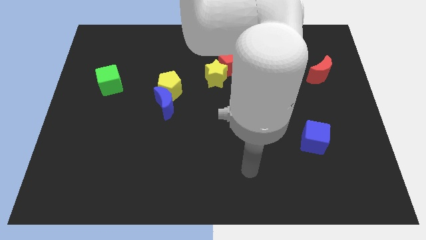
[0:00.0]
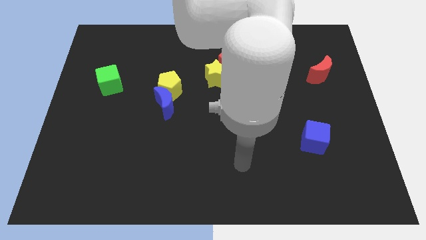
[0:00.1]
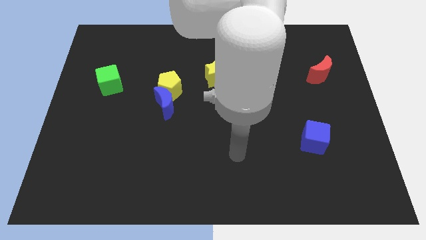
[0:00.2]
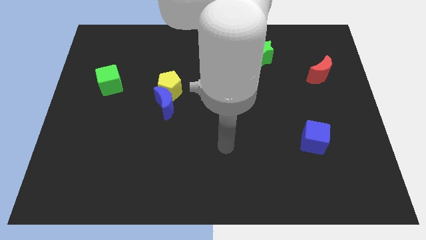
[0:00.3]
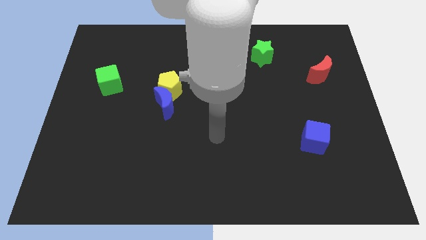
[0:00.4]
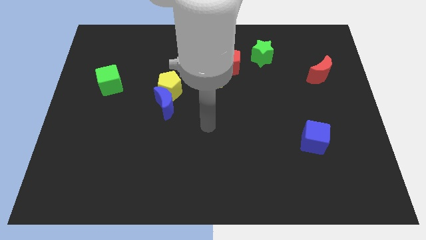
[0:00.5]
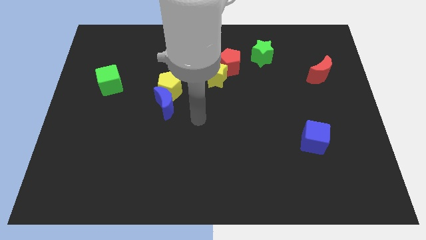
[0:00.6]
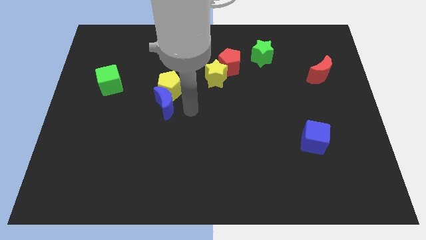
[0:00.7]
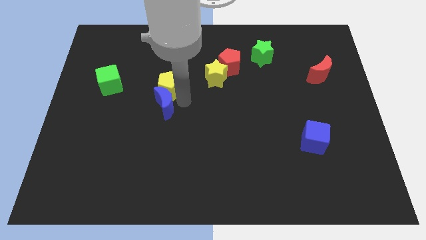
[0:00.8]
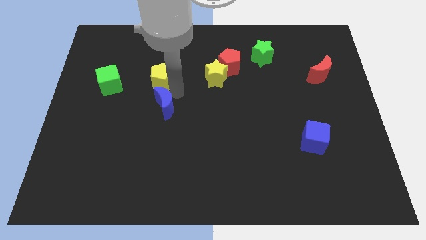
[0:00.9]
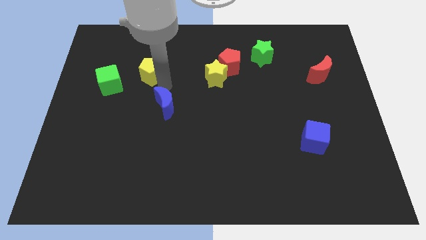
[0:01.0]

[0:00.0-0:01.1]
pull the blue moon apart from the yellow pentagon

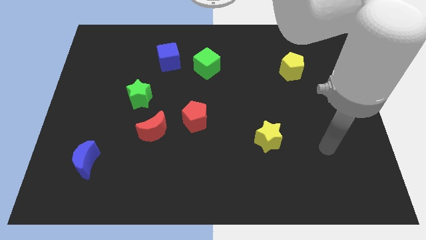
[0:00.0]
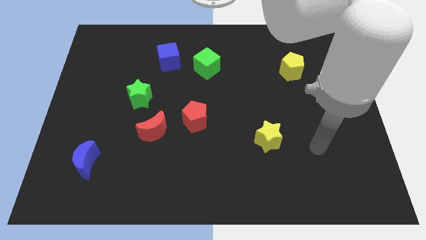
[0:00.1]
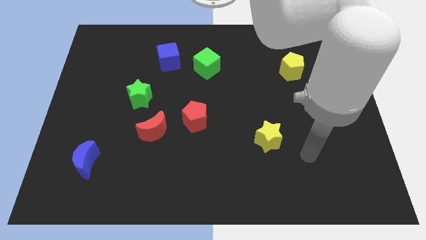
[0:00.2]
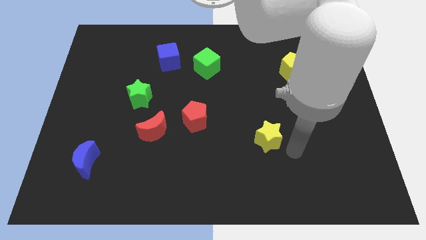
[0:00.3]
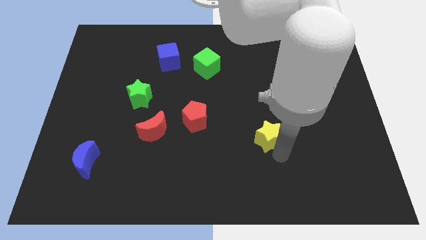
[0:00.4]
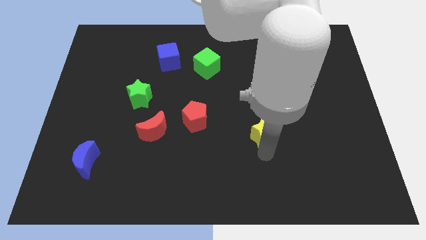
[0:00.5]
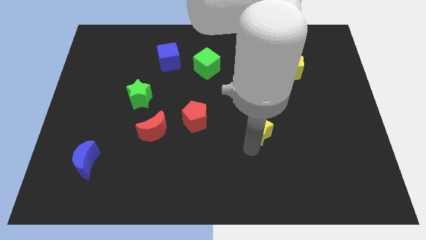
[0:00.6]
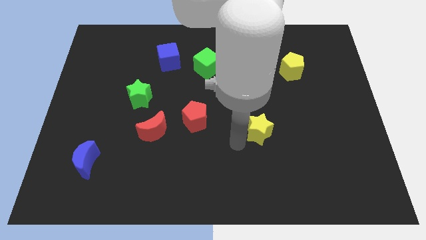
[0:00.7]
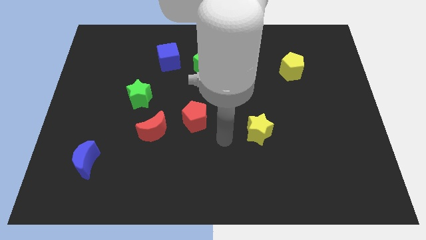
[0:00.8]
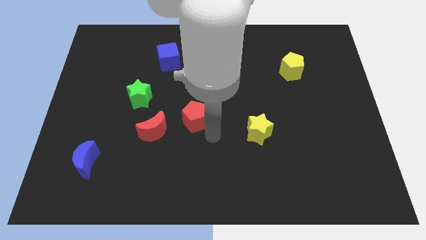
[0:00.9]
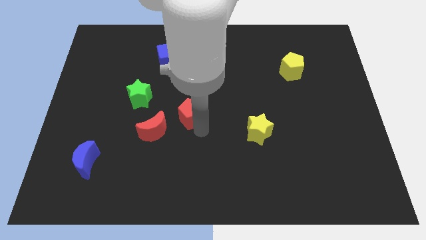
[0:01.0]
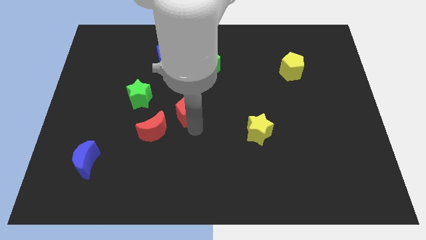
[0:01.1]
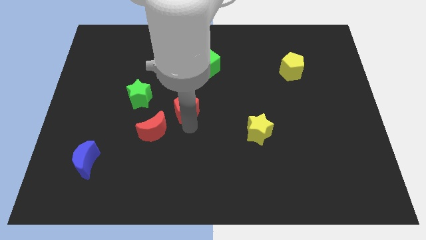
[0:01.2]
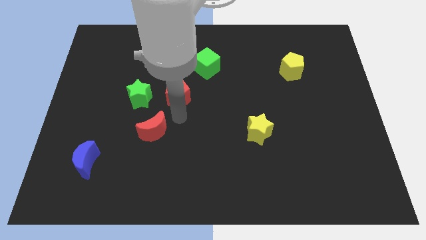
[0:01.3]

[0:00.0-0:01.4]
separate the red moon from the red pentagon

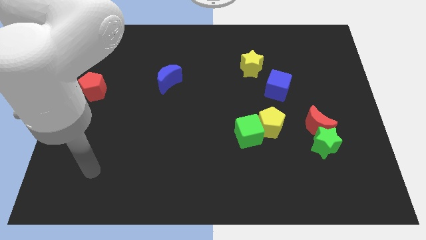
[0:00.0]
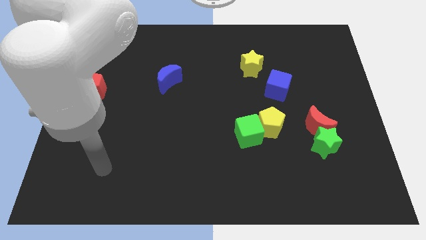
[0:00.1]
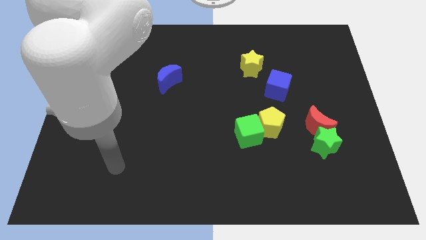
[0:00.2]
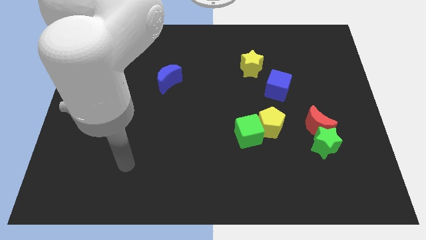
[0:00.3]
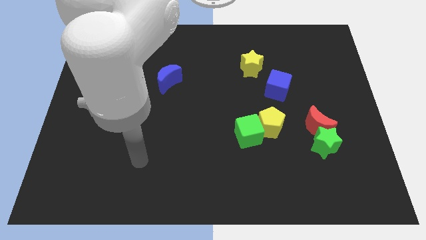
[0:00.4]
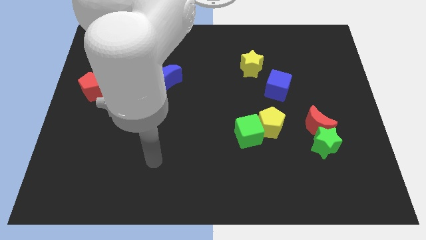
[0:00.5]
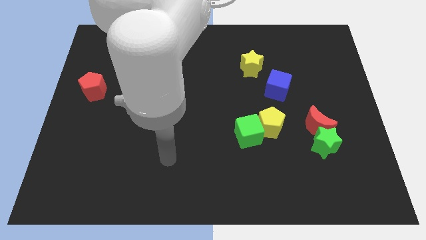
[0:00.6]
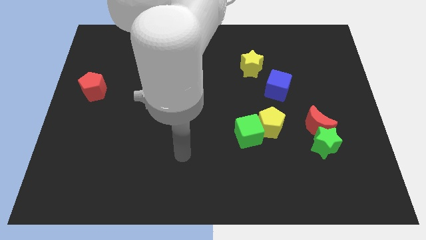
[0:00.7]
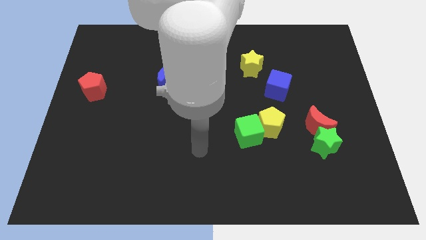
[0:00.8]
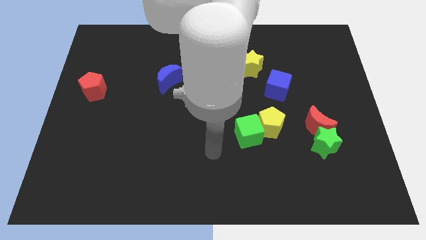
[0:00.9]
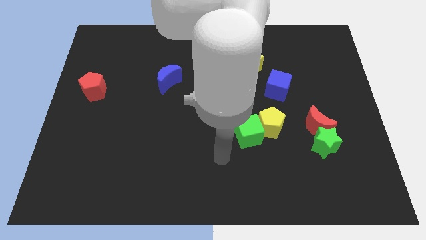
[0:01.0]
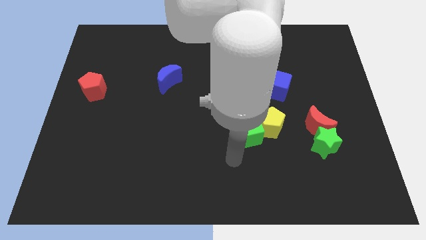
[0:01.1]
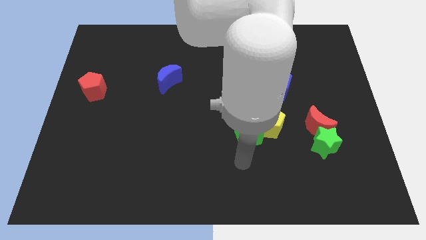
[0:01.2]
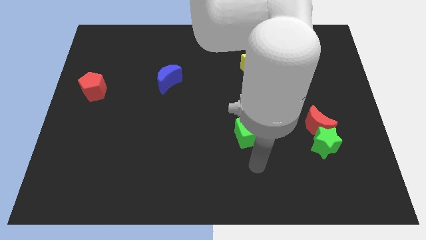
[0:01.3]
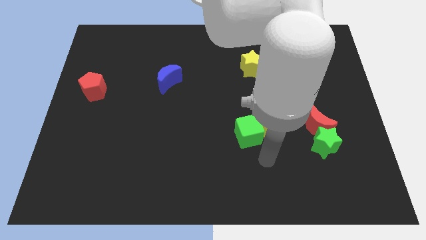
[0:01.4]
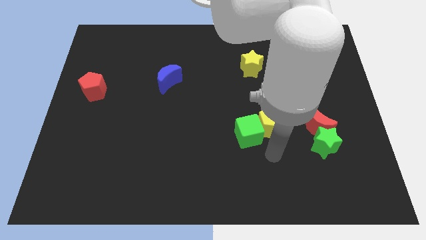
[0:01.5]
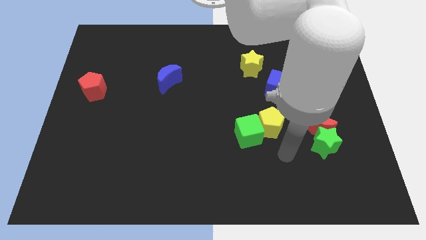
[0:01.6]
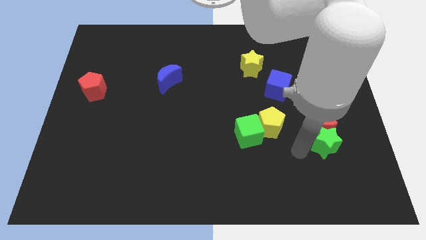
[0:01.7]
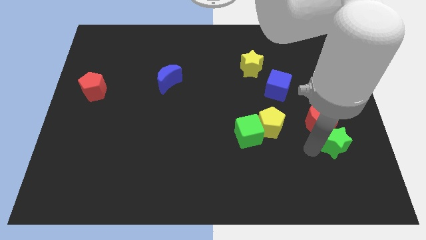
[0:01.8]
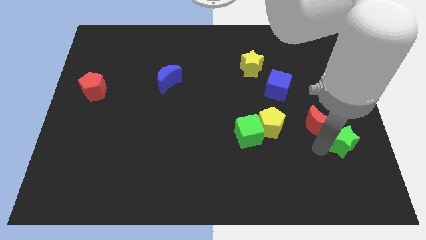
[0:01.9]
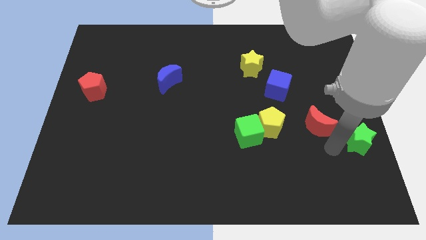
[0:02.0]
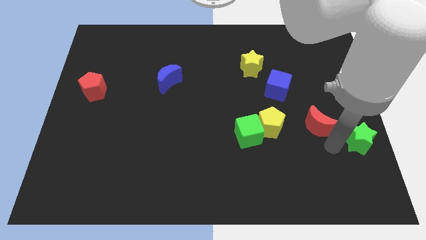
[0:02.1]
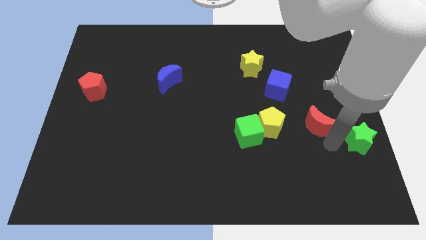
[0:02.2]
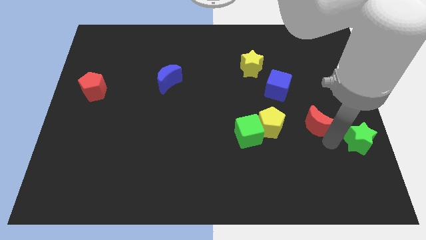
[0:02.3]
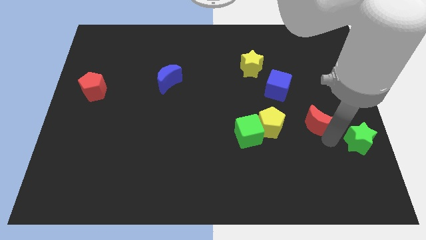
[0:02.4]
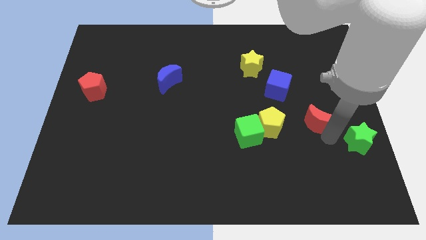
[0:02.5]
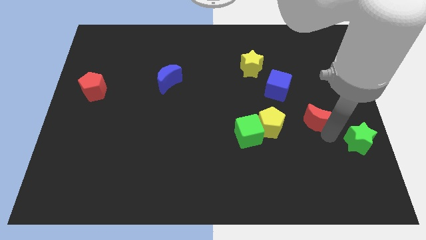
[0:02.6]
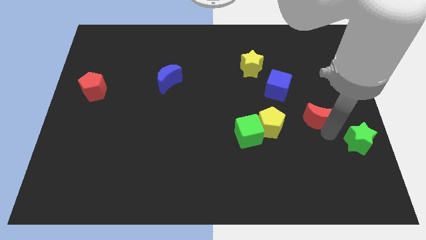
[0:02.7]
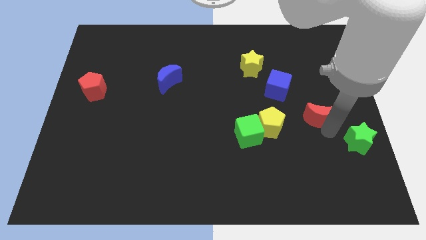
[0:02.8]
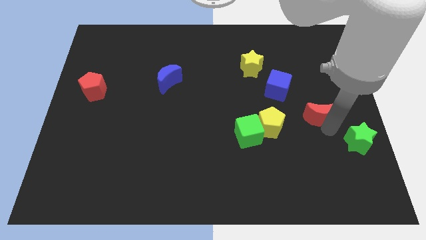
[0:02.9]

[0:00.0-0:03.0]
separate the red moon from the green star

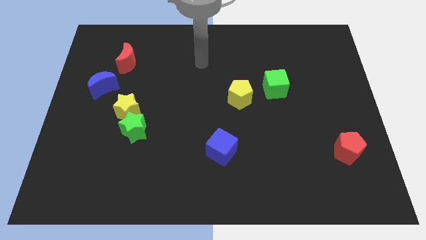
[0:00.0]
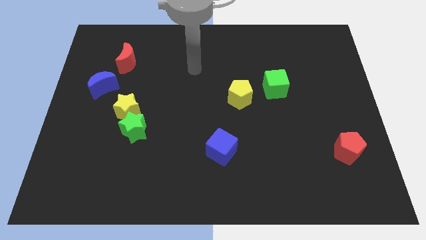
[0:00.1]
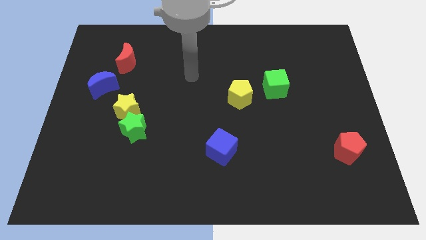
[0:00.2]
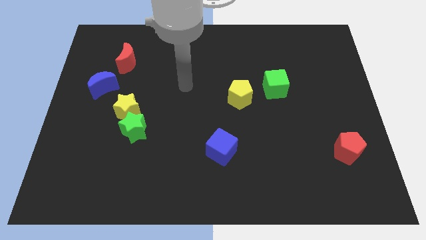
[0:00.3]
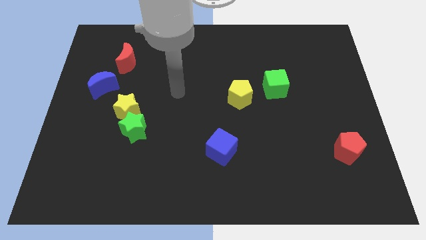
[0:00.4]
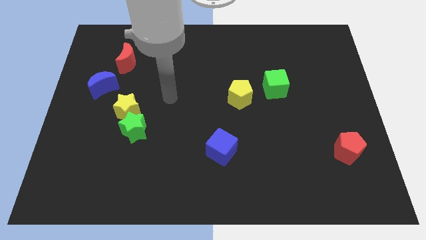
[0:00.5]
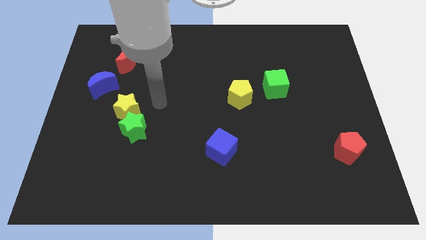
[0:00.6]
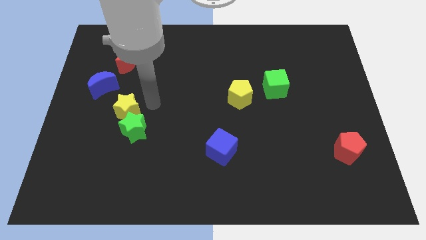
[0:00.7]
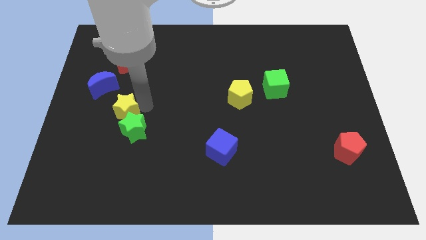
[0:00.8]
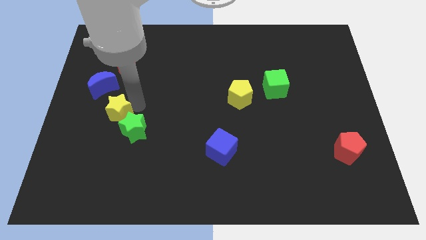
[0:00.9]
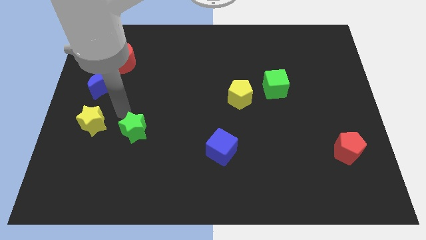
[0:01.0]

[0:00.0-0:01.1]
pull the green star apart from the yellow star

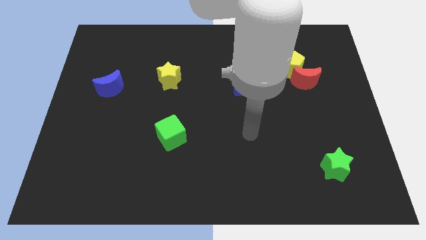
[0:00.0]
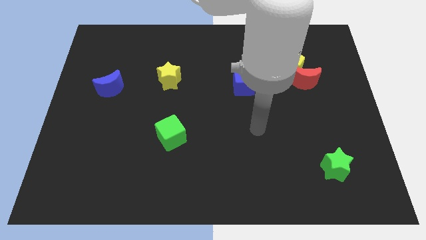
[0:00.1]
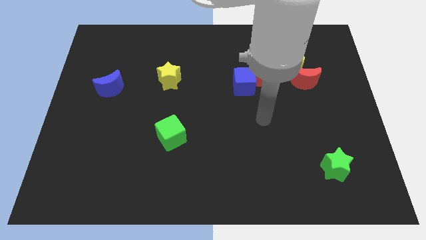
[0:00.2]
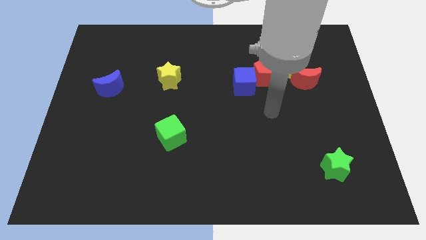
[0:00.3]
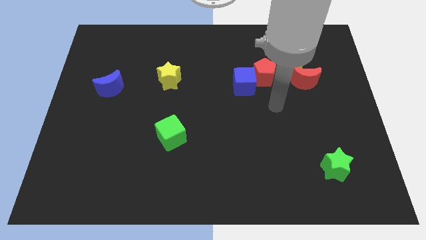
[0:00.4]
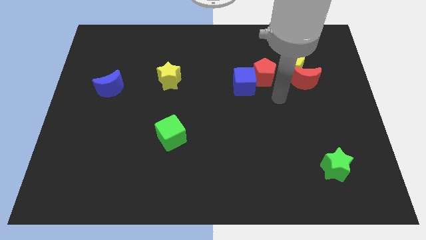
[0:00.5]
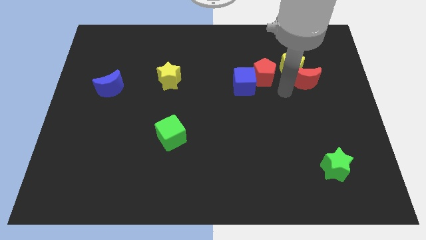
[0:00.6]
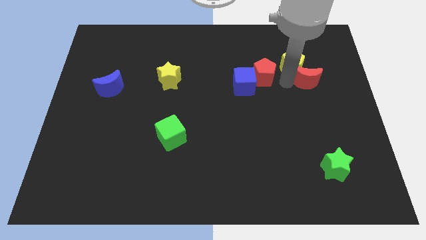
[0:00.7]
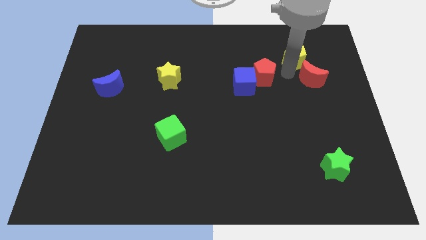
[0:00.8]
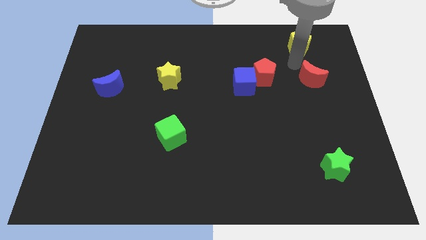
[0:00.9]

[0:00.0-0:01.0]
pull the red moon apart from the yellow pentagon

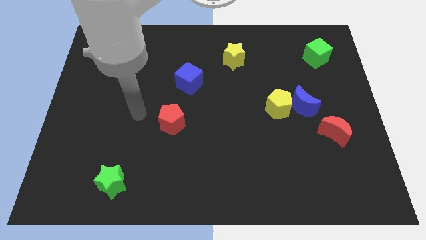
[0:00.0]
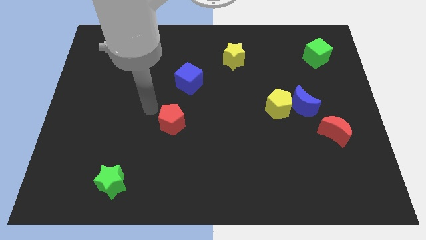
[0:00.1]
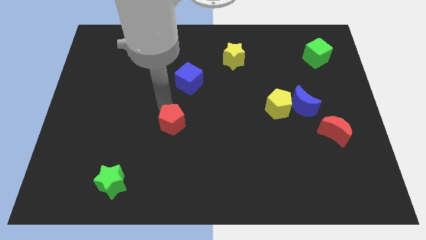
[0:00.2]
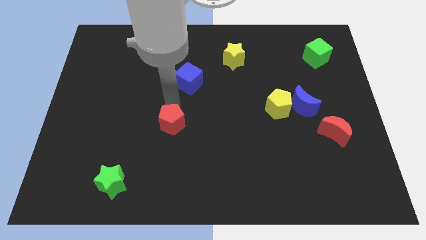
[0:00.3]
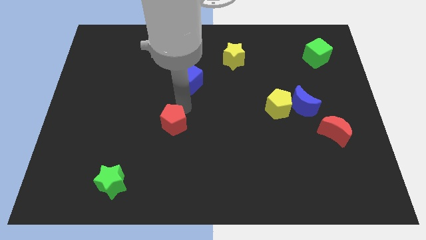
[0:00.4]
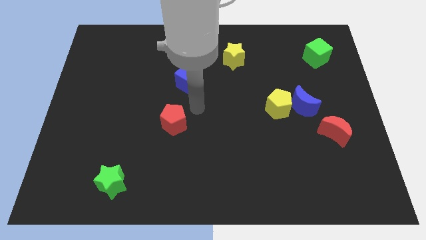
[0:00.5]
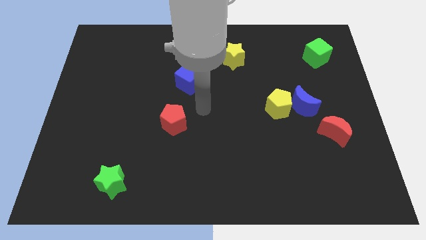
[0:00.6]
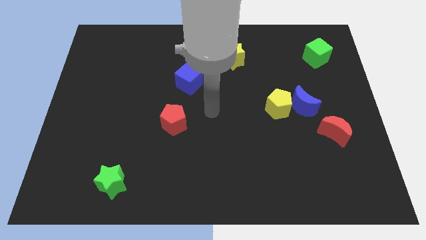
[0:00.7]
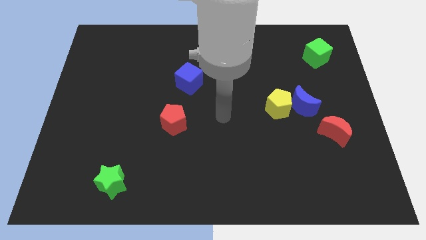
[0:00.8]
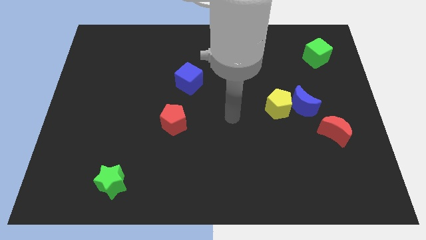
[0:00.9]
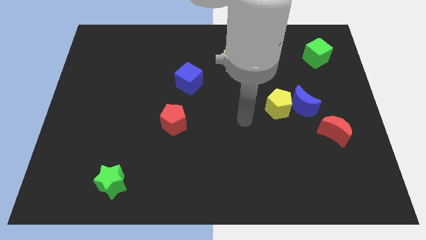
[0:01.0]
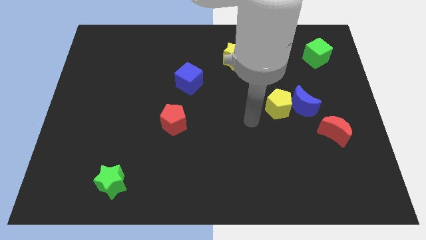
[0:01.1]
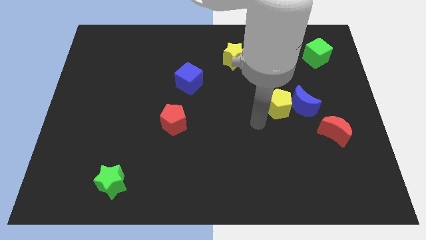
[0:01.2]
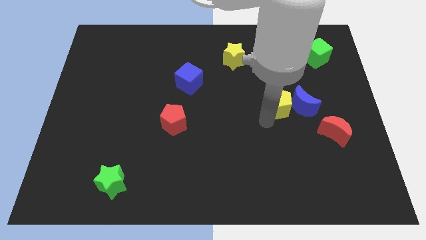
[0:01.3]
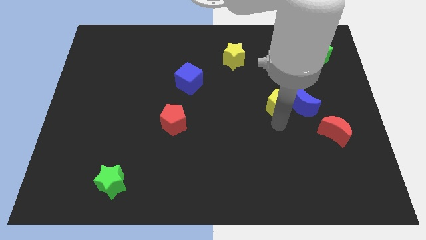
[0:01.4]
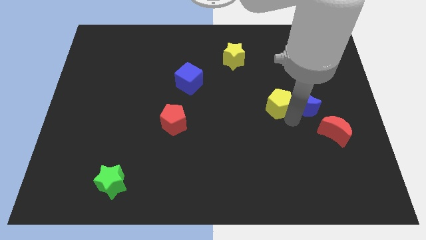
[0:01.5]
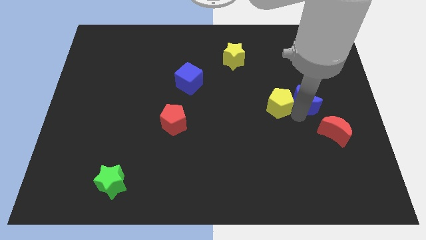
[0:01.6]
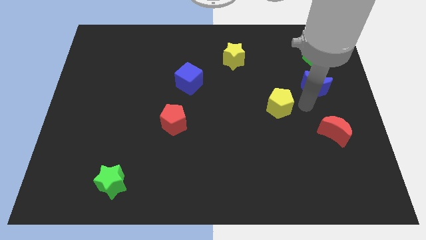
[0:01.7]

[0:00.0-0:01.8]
separate the yellow pentagon from the blue moon

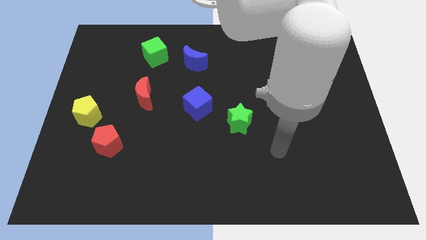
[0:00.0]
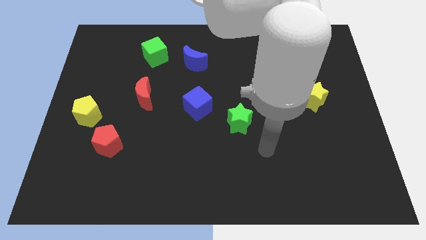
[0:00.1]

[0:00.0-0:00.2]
separate the red pentagon from the yellow pentagon
